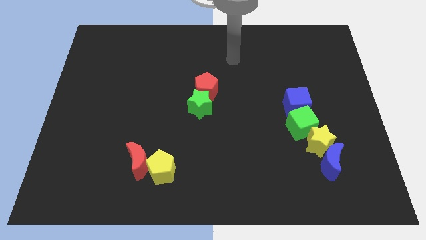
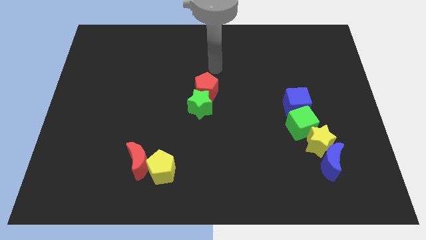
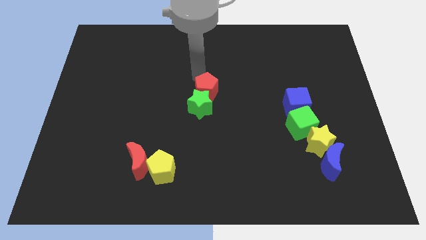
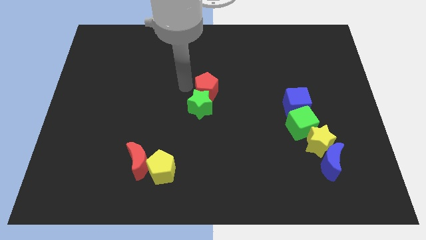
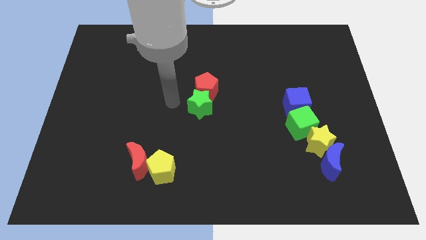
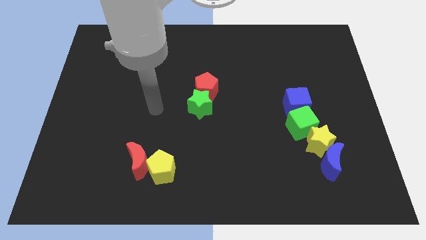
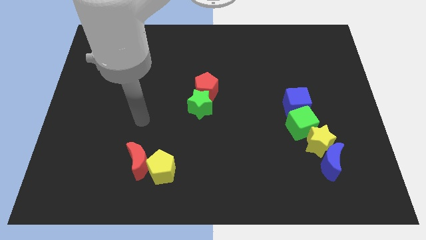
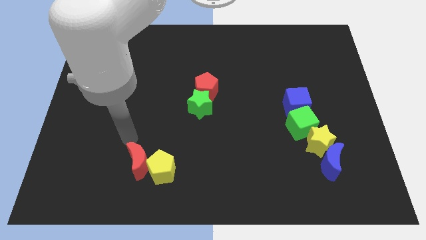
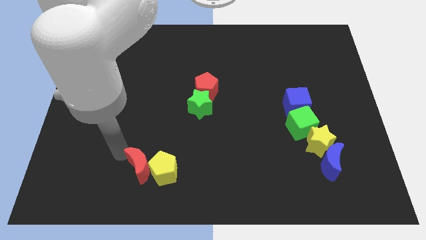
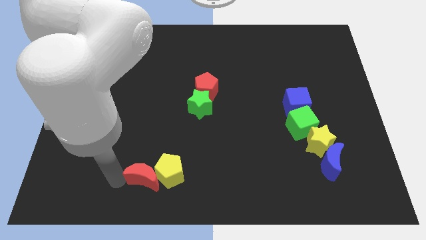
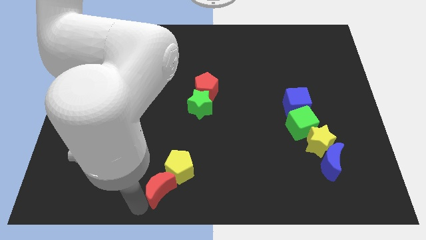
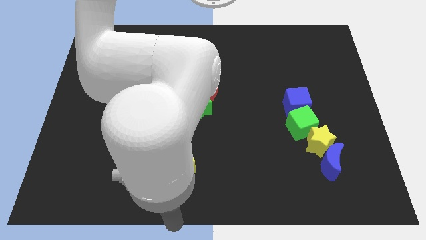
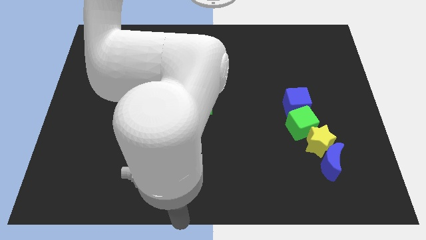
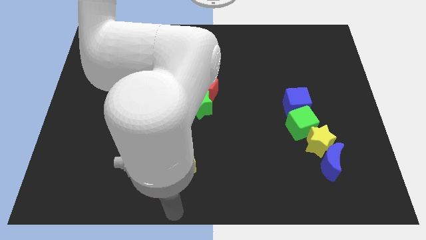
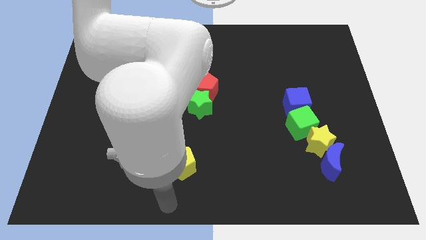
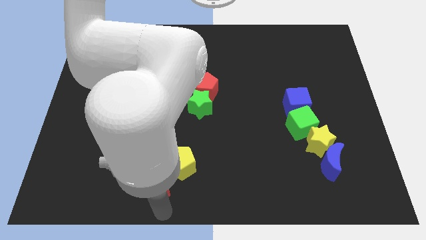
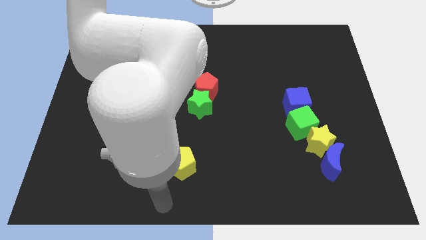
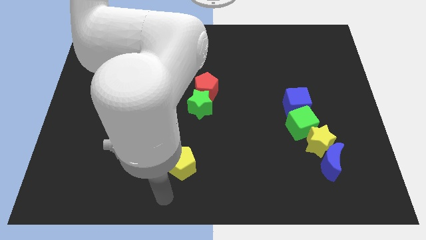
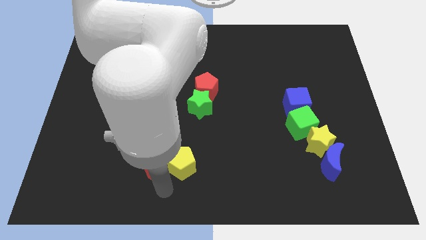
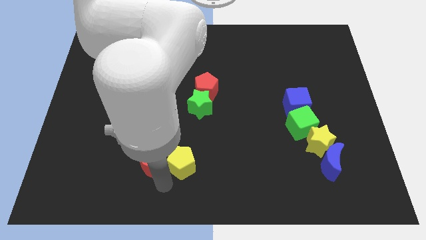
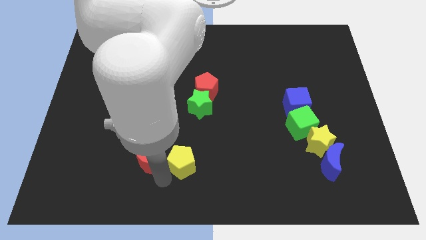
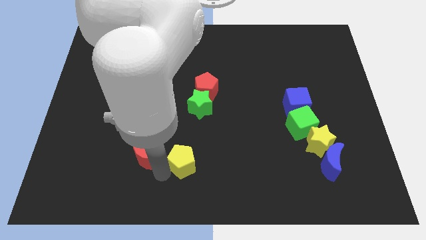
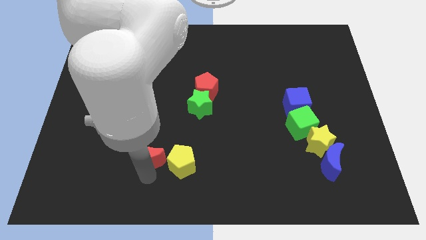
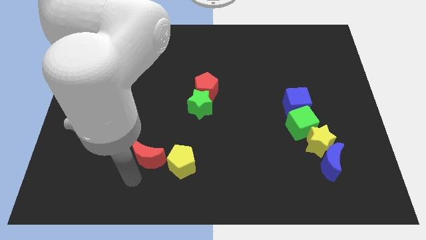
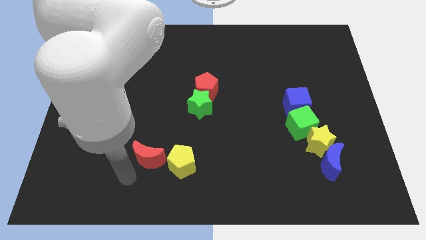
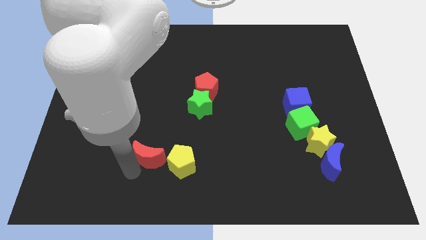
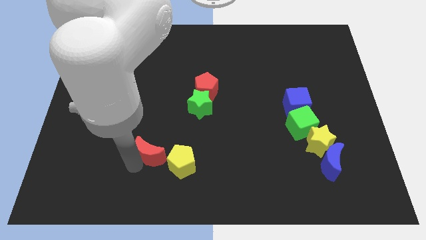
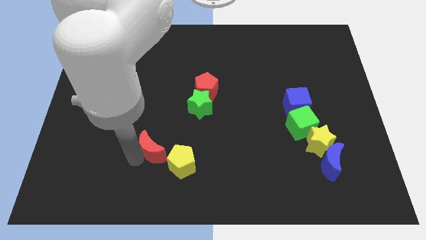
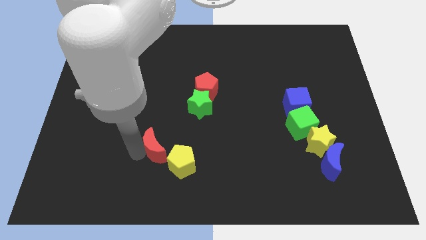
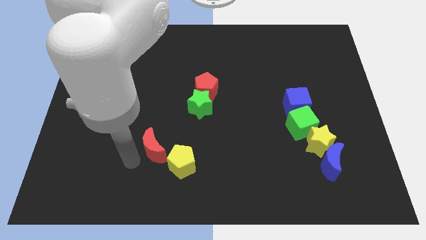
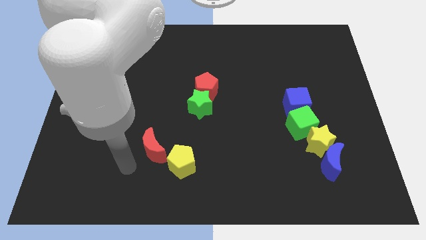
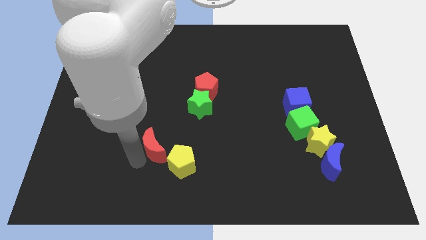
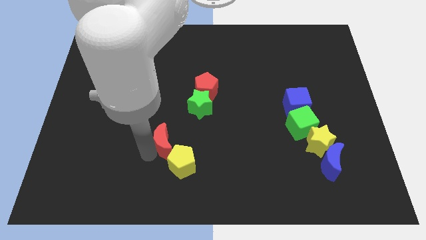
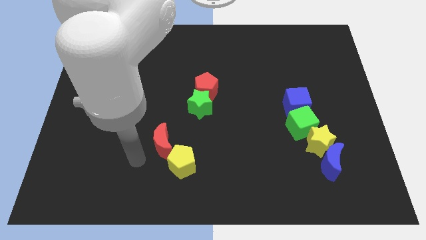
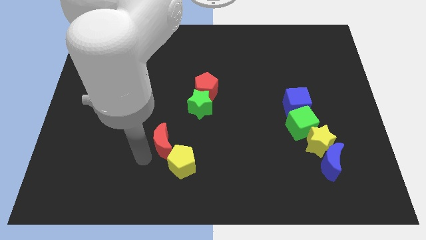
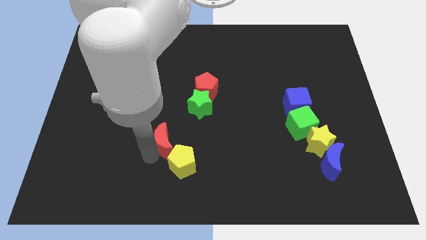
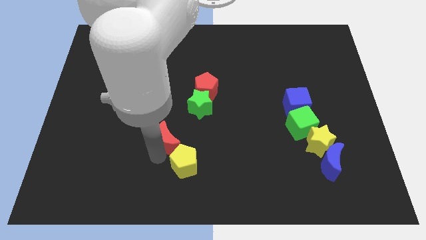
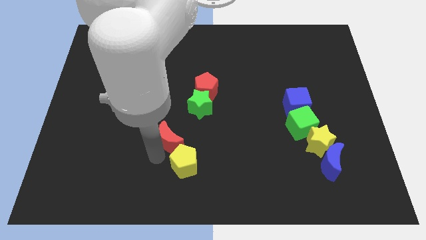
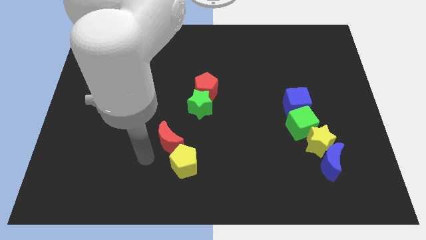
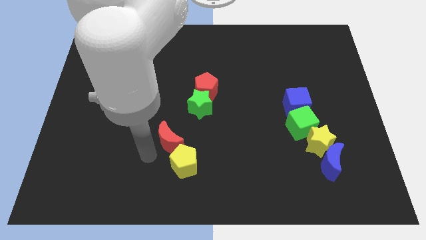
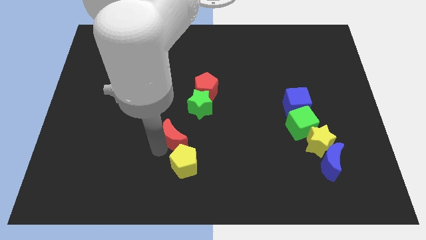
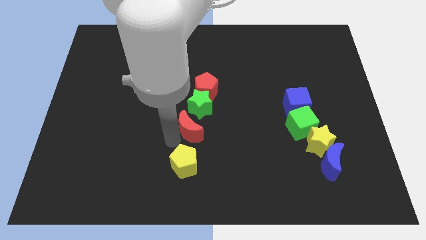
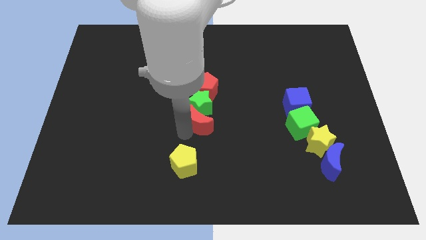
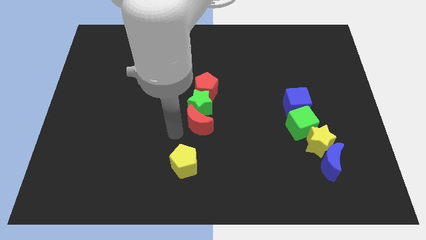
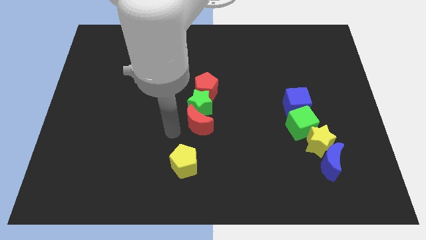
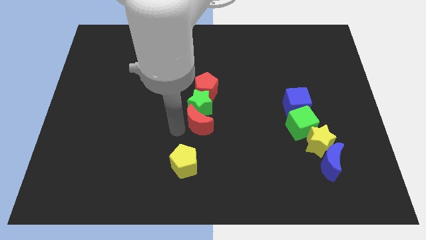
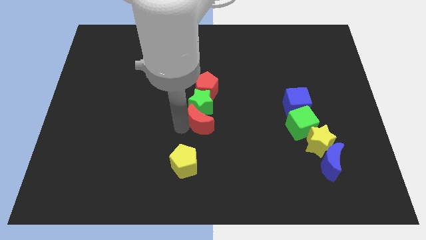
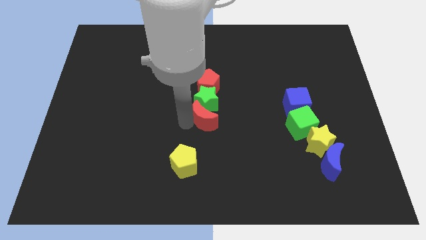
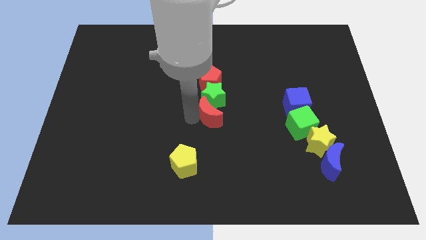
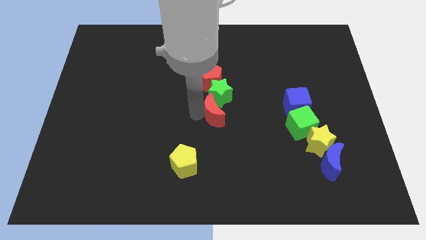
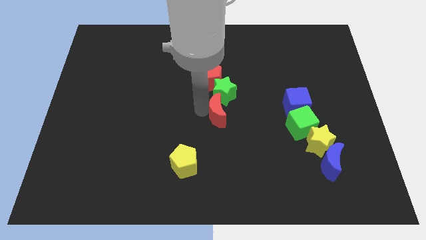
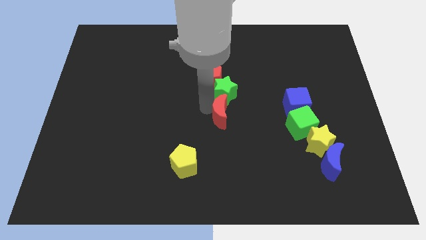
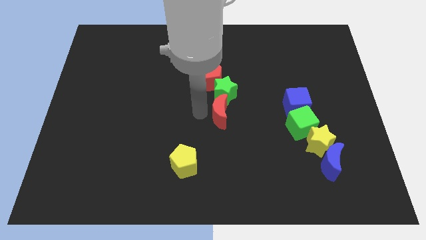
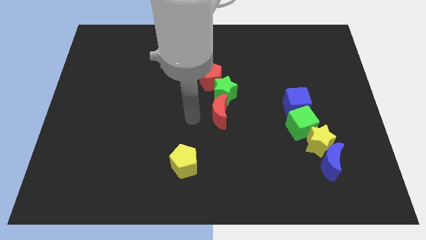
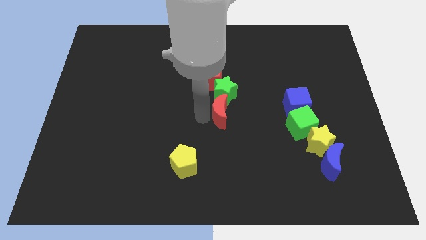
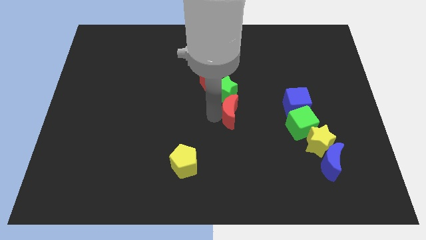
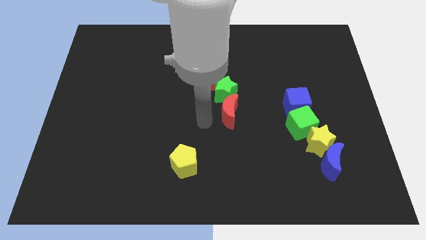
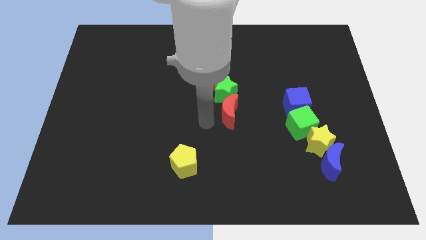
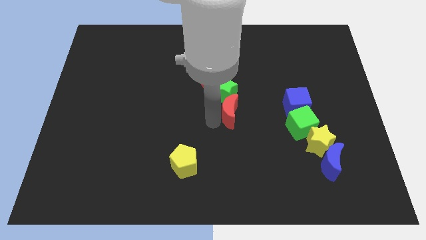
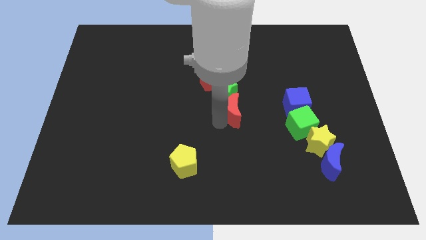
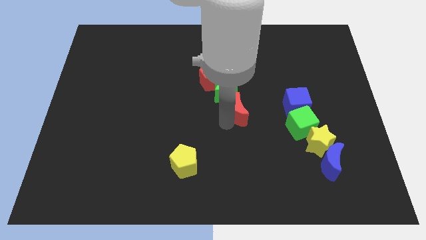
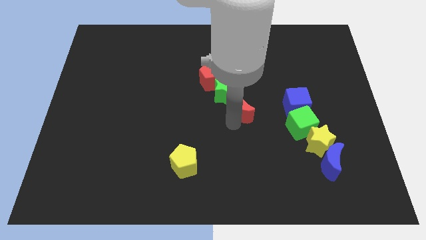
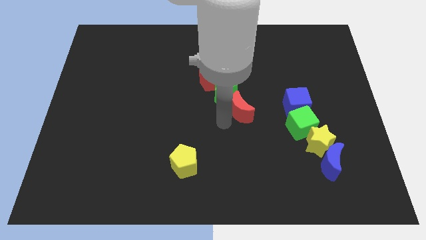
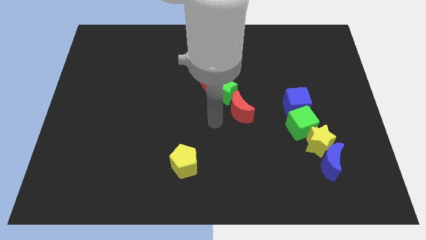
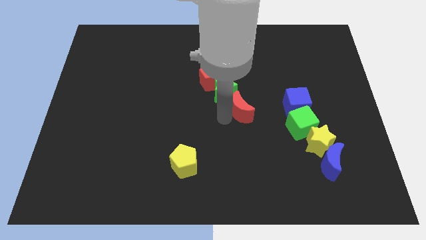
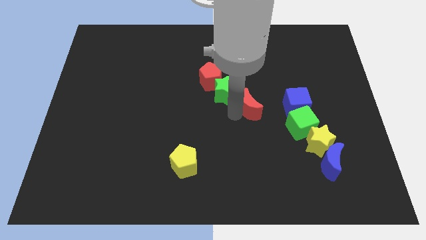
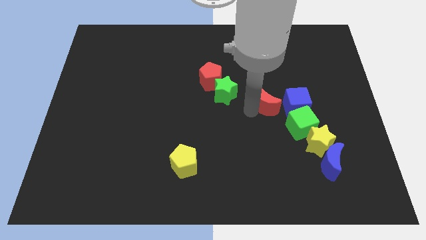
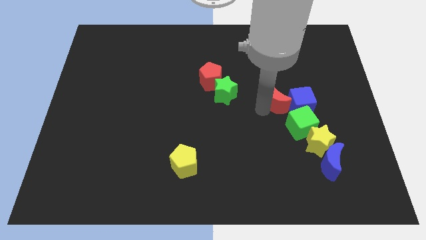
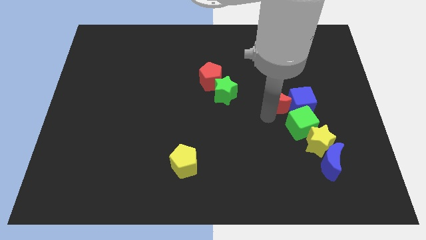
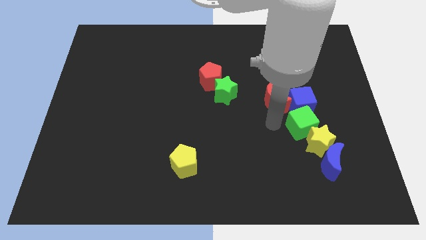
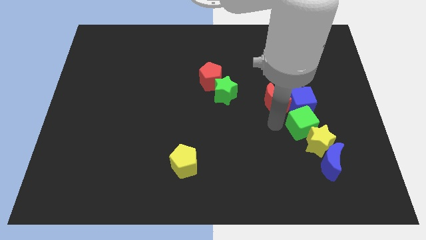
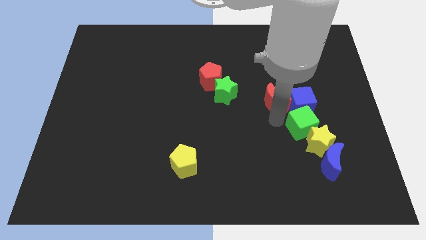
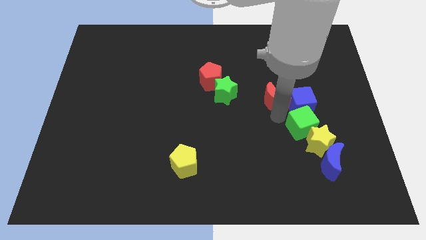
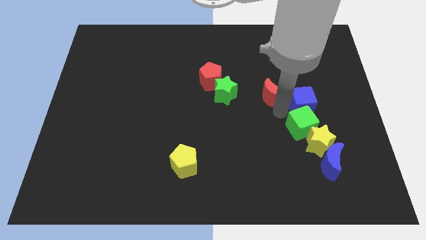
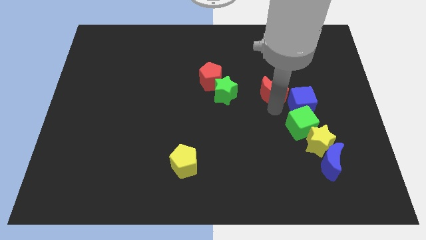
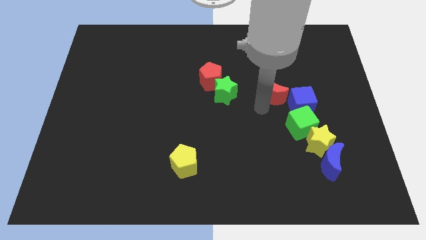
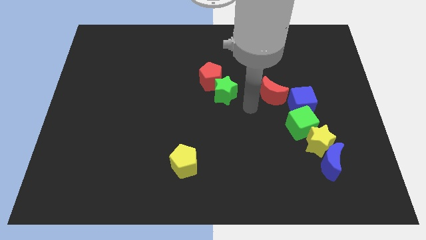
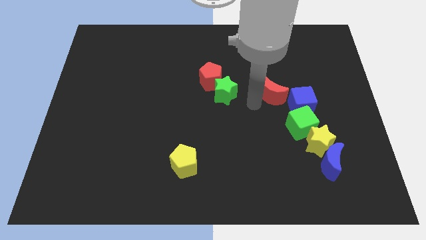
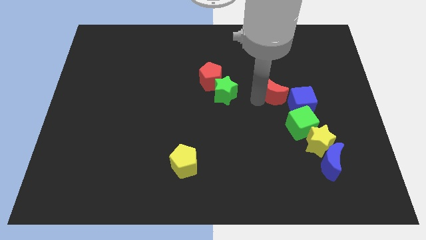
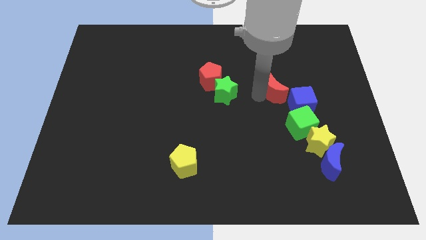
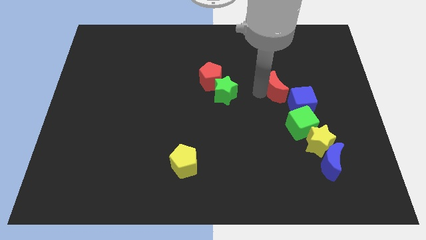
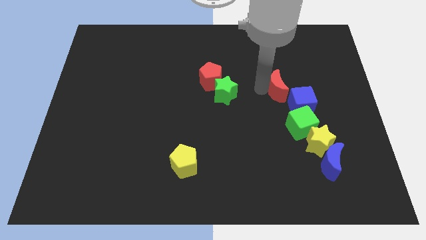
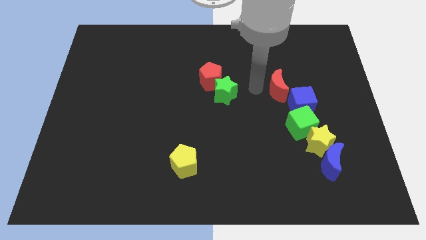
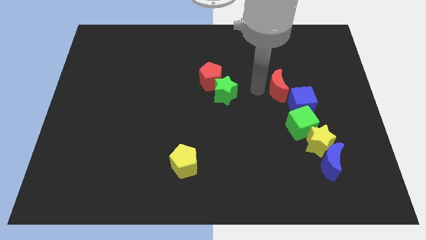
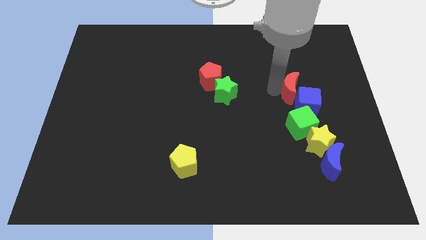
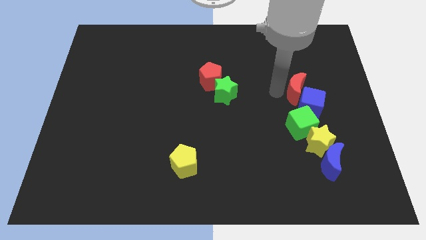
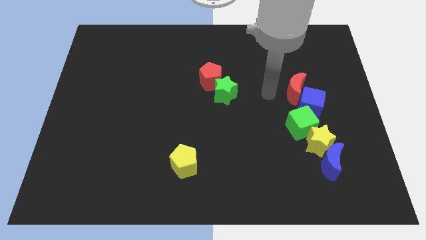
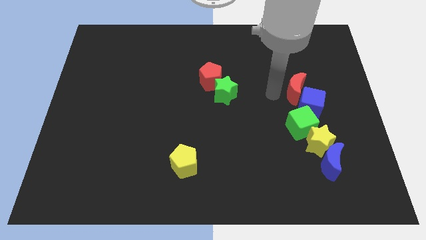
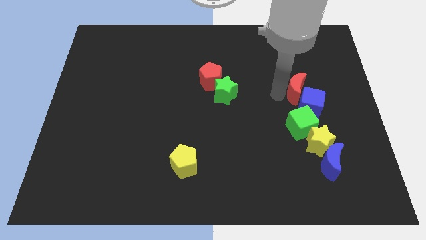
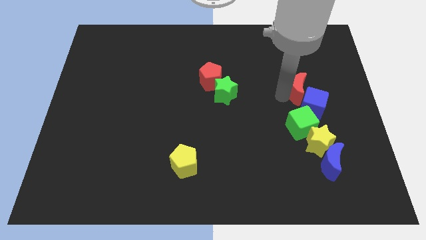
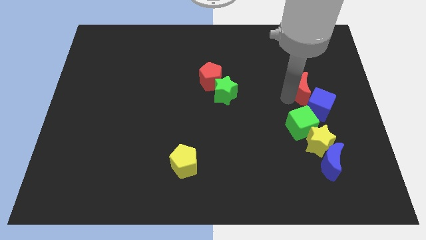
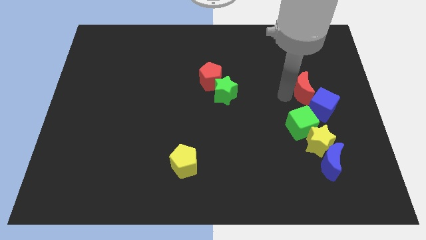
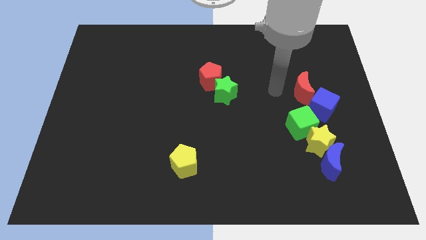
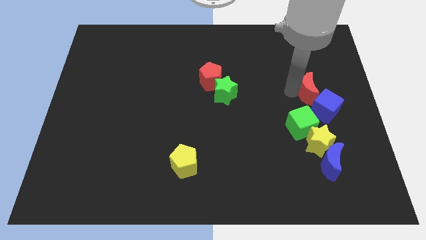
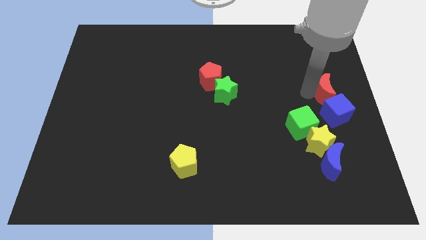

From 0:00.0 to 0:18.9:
move the red moon to the center right
